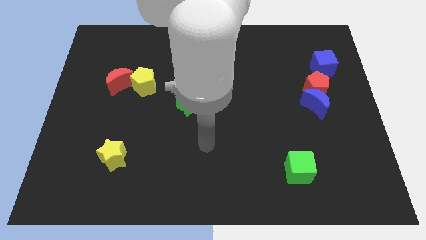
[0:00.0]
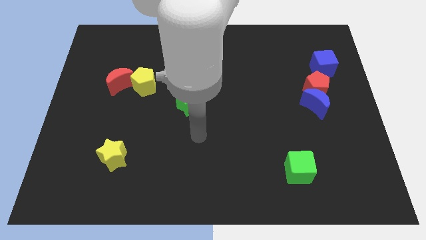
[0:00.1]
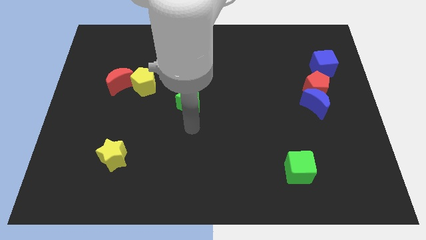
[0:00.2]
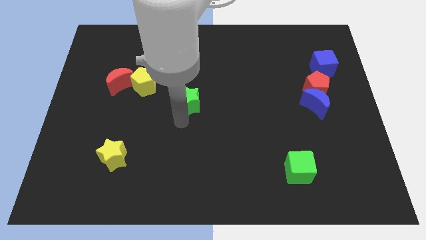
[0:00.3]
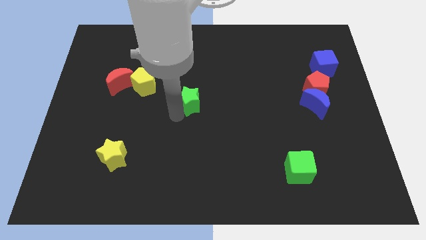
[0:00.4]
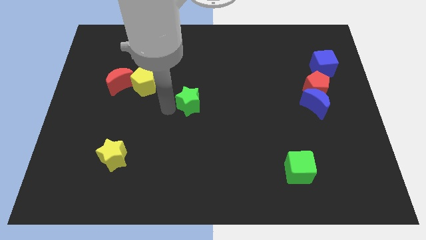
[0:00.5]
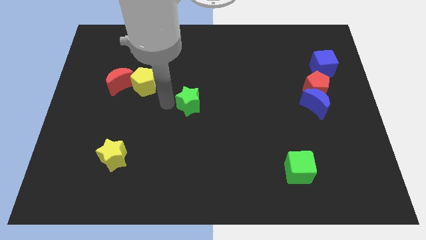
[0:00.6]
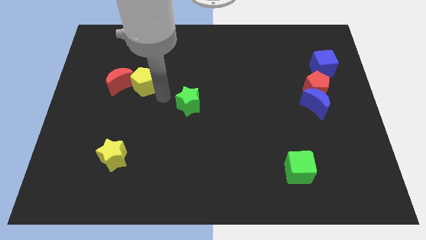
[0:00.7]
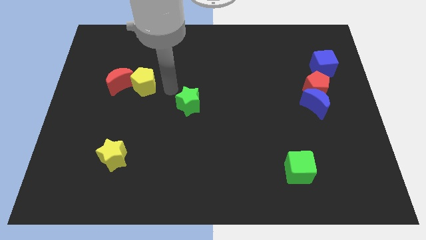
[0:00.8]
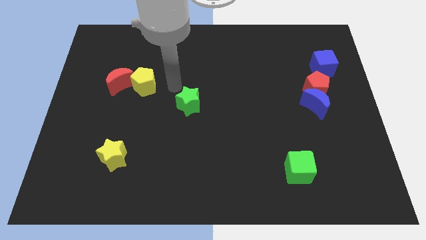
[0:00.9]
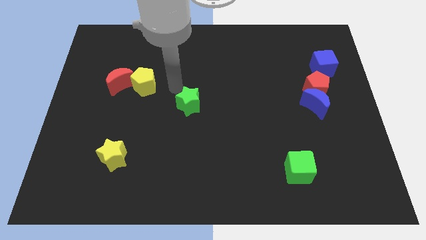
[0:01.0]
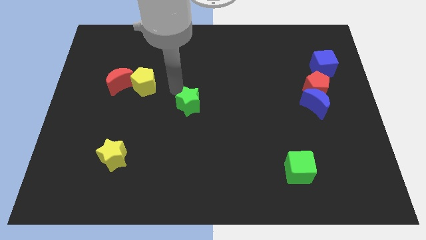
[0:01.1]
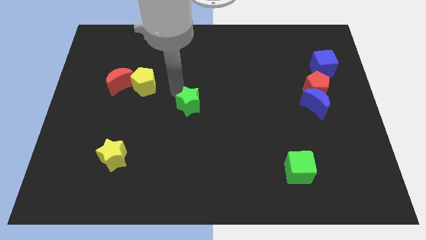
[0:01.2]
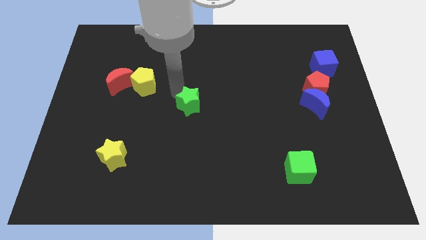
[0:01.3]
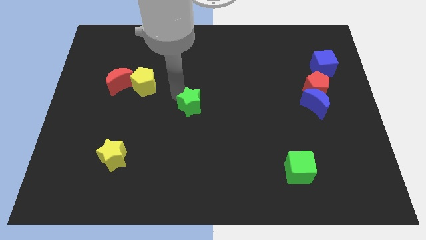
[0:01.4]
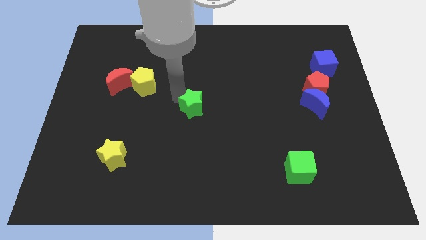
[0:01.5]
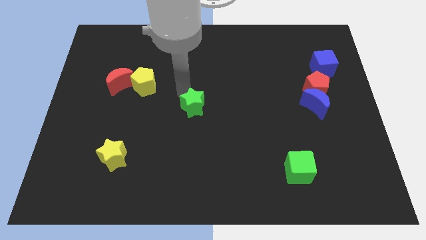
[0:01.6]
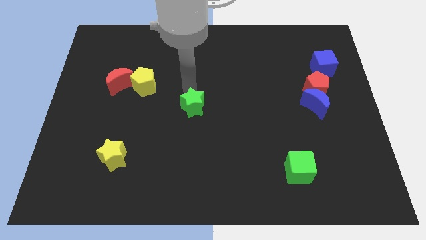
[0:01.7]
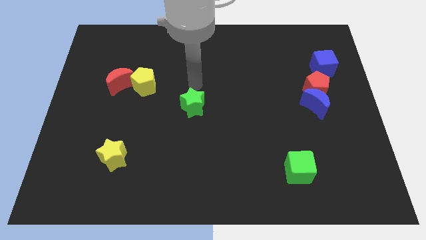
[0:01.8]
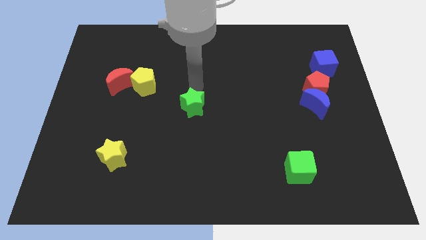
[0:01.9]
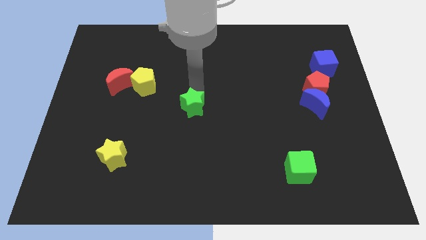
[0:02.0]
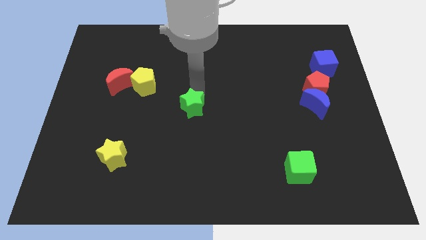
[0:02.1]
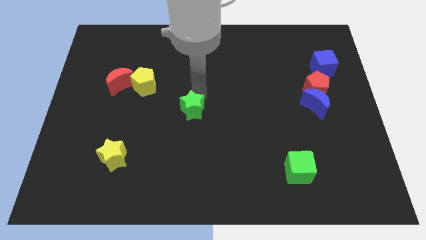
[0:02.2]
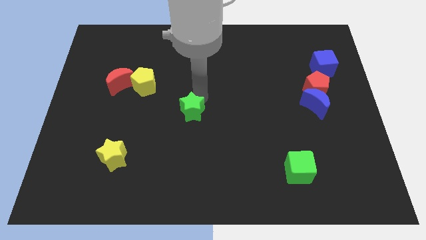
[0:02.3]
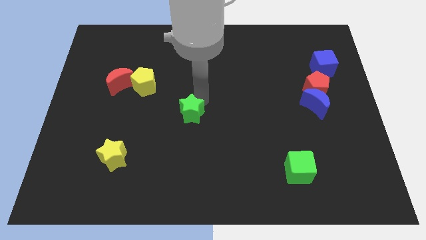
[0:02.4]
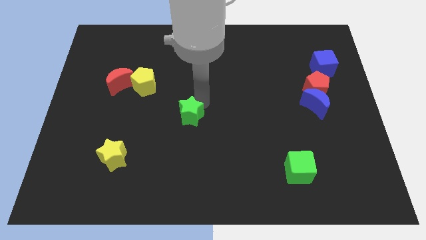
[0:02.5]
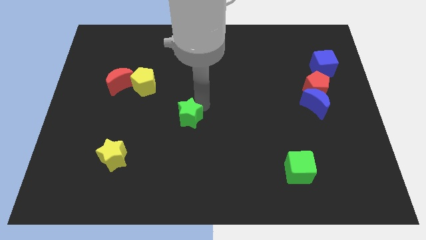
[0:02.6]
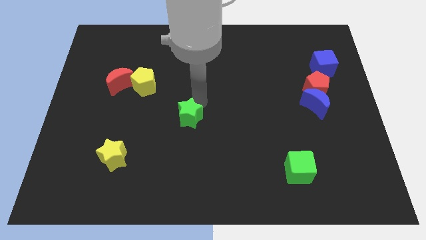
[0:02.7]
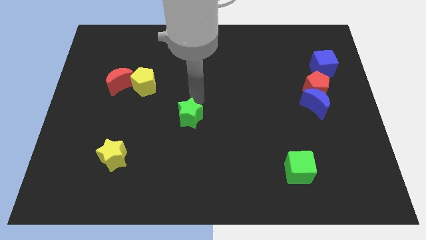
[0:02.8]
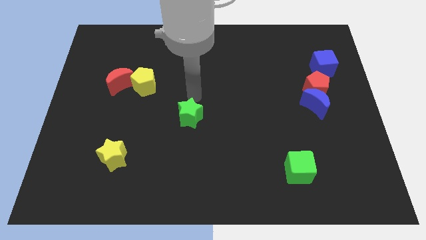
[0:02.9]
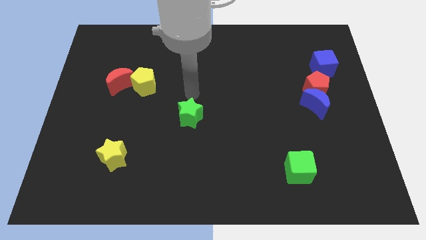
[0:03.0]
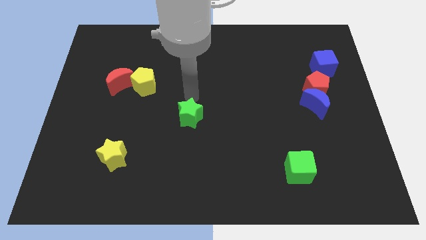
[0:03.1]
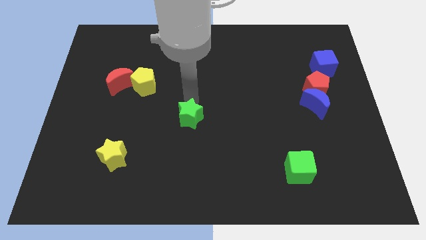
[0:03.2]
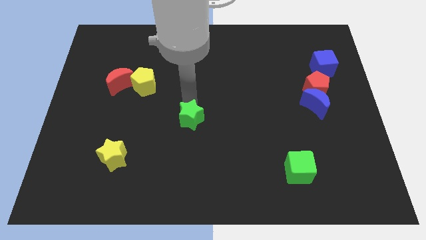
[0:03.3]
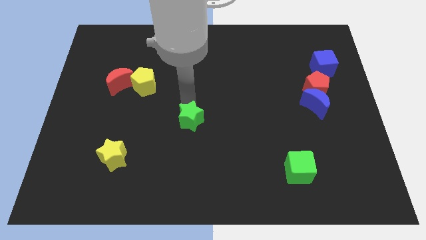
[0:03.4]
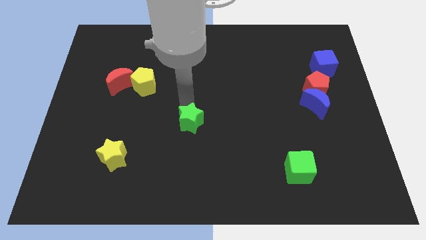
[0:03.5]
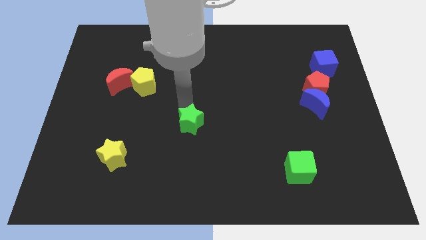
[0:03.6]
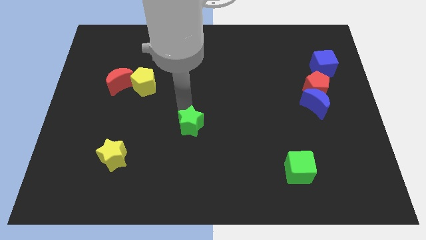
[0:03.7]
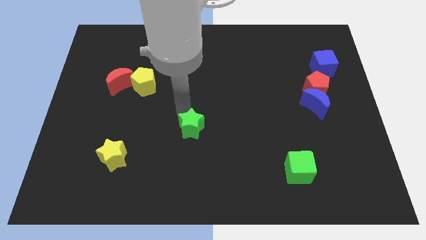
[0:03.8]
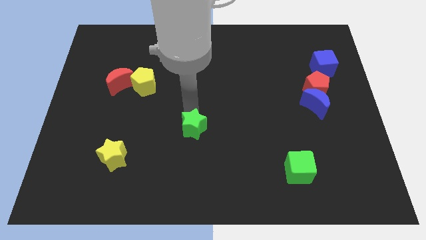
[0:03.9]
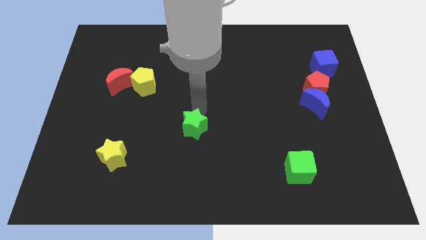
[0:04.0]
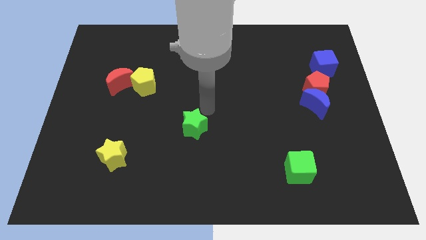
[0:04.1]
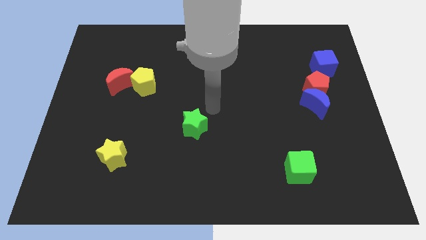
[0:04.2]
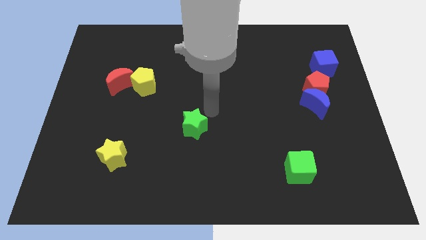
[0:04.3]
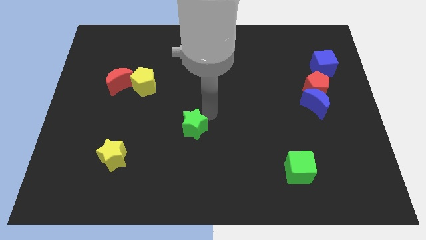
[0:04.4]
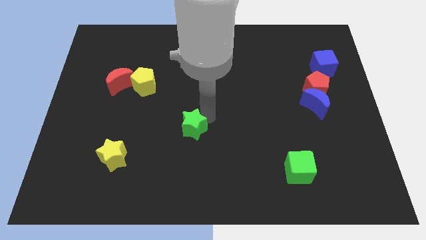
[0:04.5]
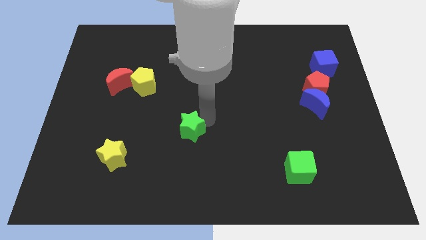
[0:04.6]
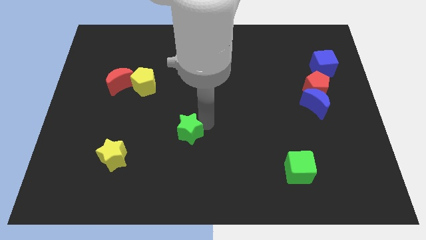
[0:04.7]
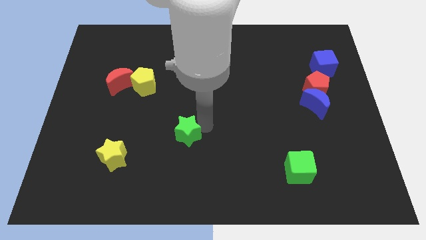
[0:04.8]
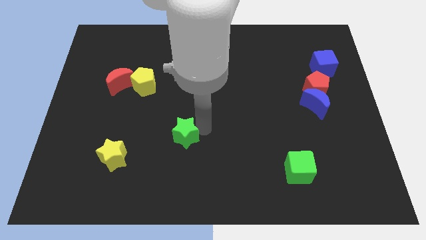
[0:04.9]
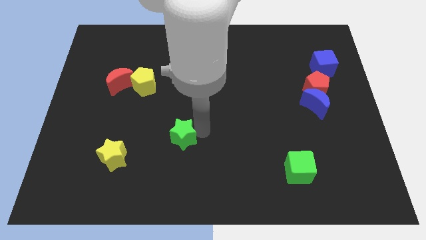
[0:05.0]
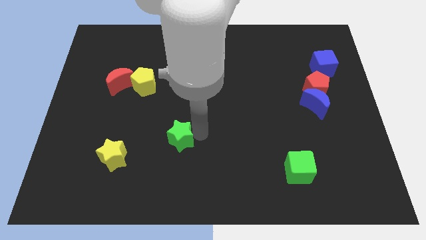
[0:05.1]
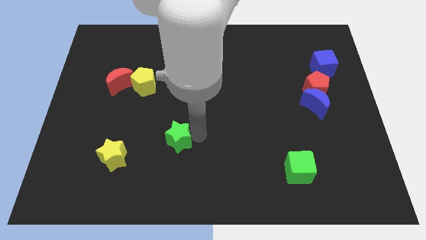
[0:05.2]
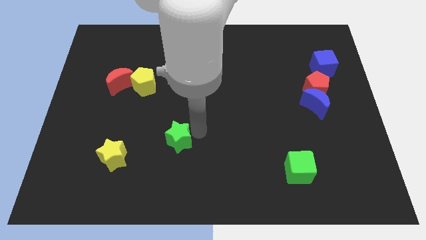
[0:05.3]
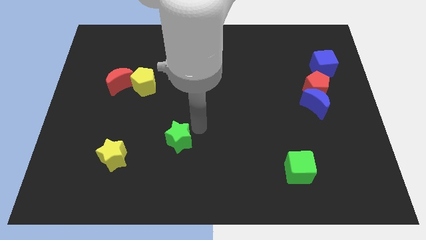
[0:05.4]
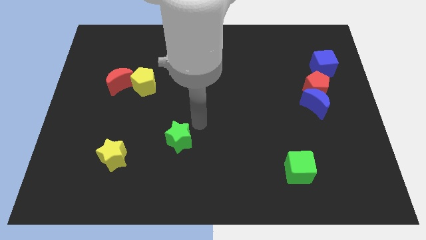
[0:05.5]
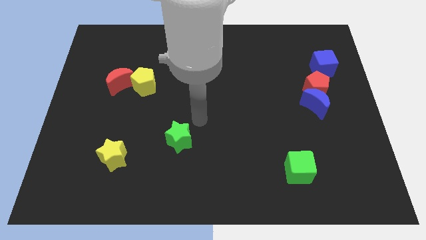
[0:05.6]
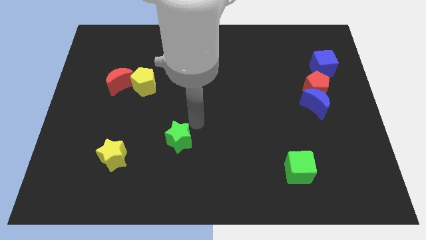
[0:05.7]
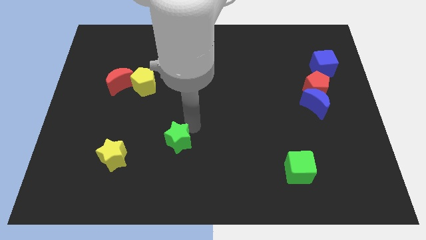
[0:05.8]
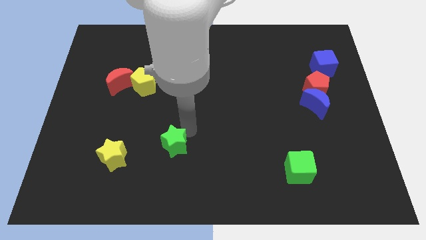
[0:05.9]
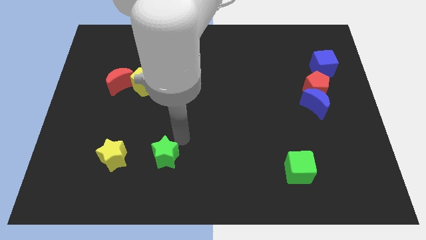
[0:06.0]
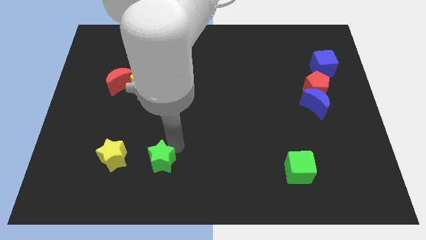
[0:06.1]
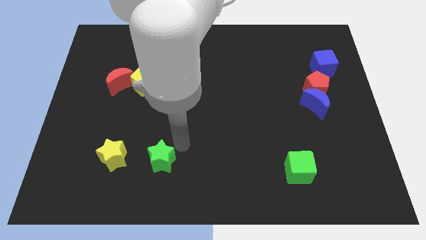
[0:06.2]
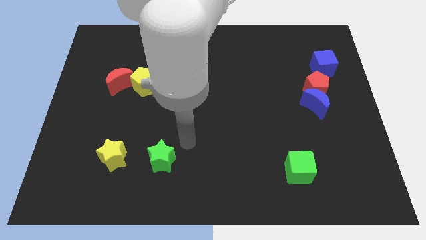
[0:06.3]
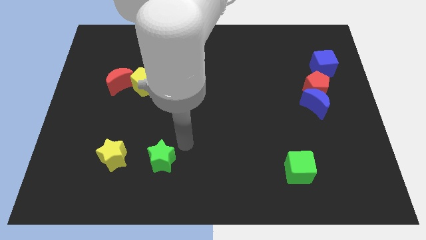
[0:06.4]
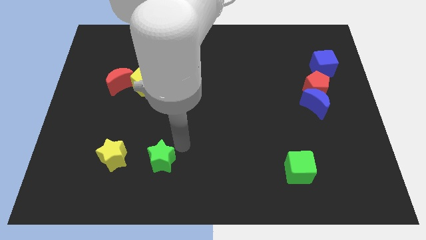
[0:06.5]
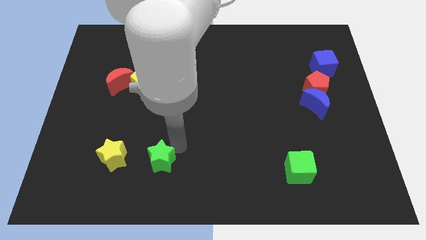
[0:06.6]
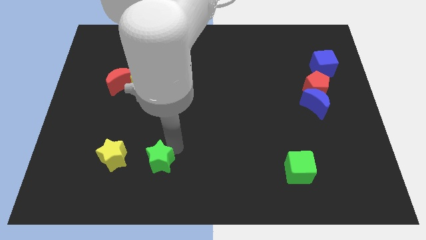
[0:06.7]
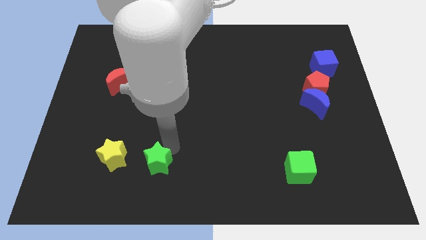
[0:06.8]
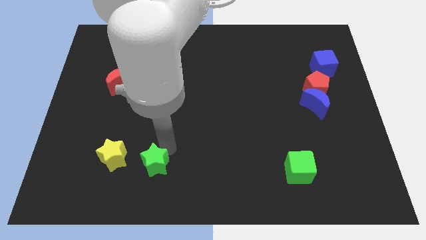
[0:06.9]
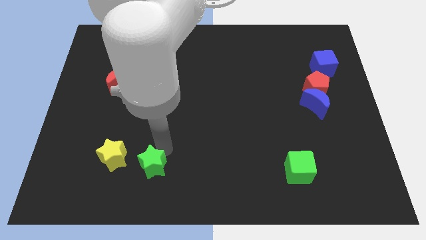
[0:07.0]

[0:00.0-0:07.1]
slide the green star diagonally down and to the right of the yellow star
